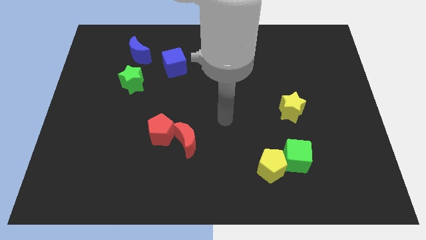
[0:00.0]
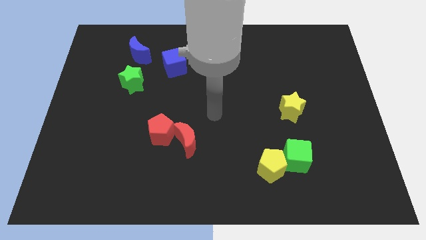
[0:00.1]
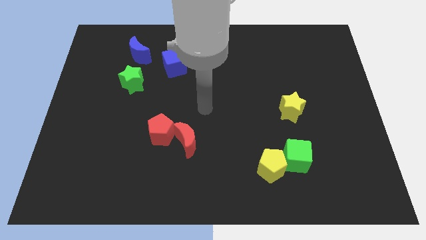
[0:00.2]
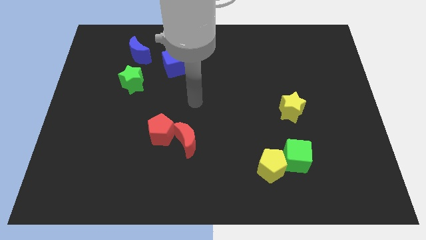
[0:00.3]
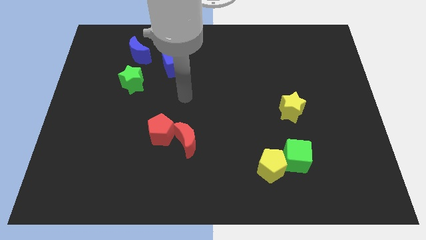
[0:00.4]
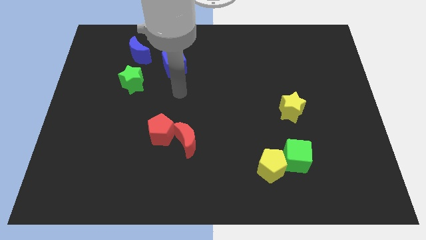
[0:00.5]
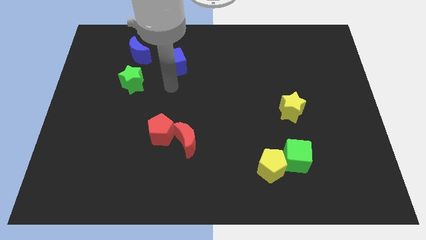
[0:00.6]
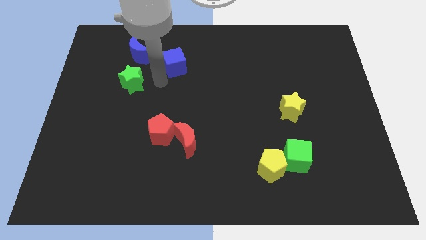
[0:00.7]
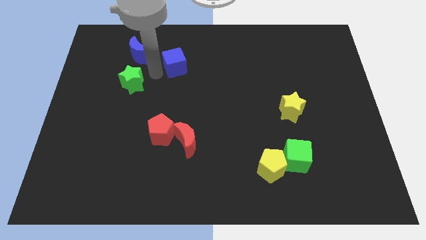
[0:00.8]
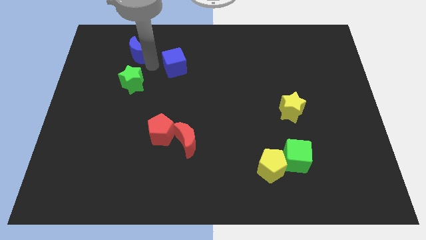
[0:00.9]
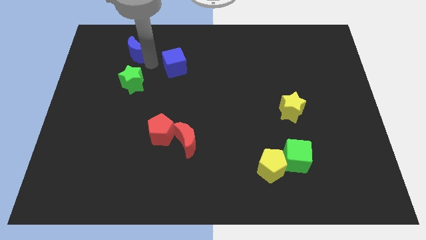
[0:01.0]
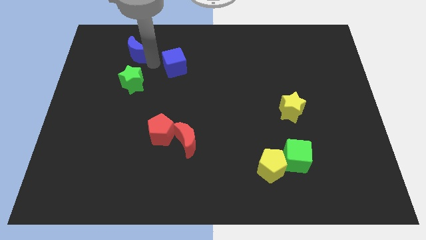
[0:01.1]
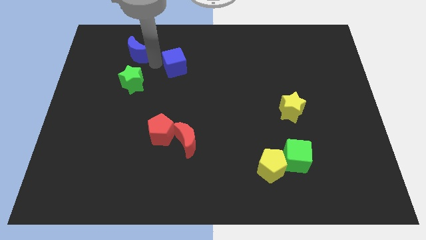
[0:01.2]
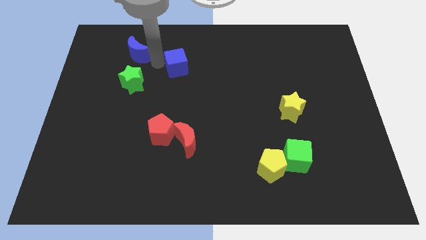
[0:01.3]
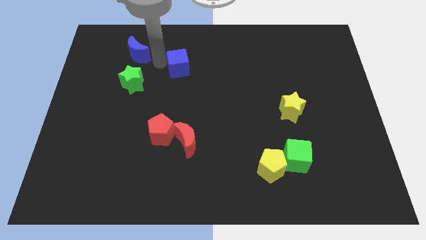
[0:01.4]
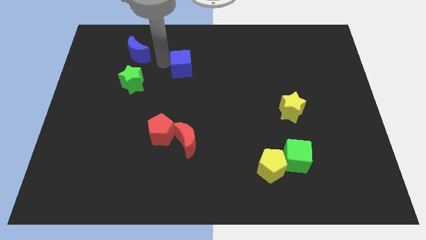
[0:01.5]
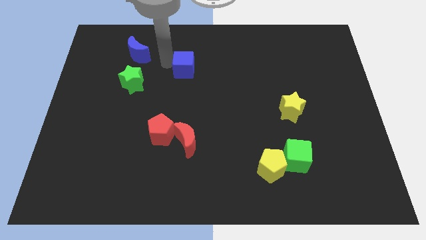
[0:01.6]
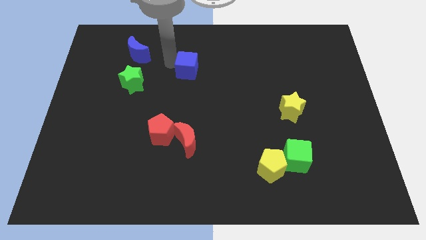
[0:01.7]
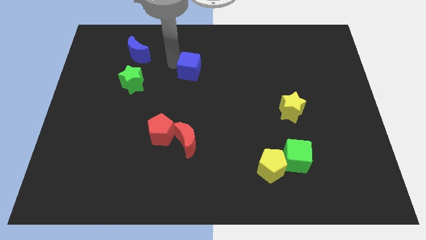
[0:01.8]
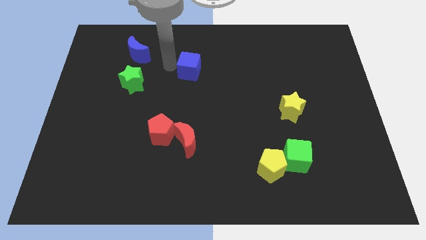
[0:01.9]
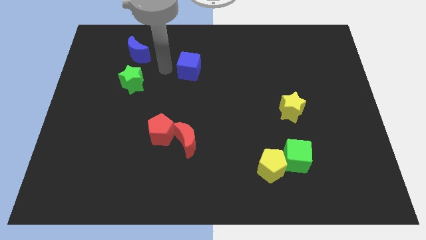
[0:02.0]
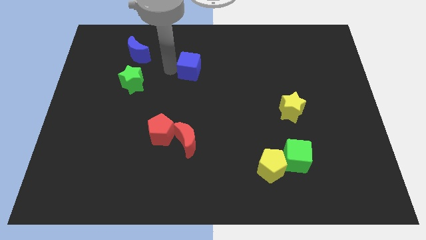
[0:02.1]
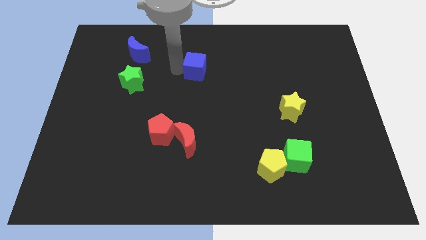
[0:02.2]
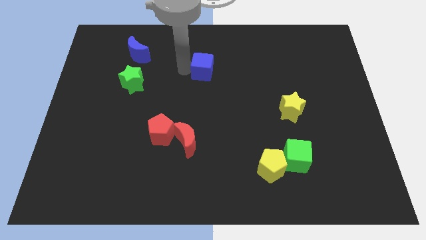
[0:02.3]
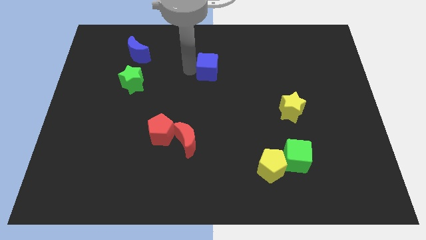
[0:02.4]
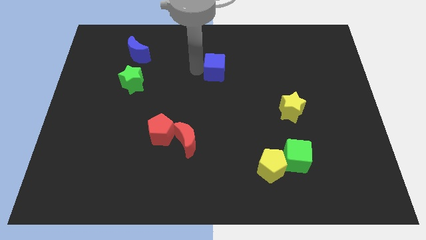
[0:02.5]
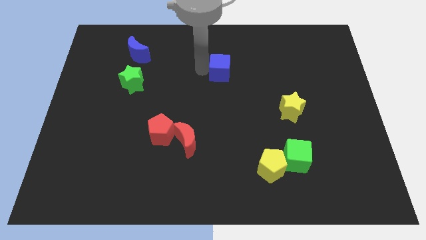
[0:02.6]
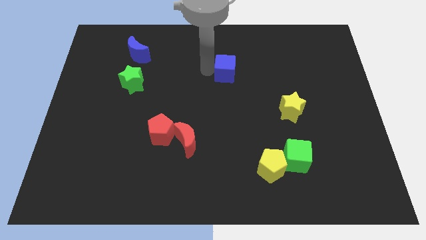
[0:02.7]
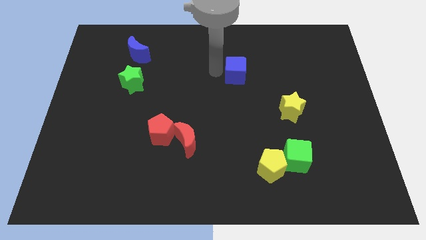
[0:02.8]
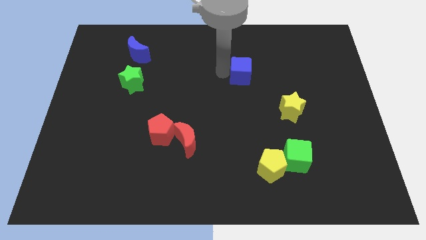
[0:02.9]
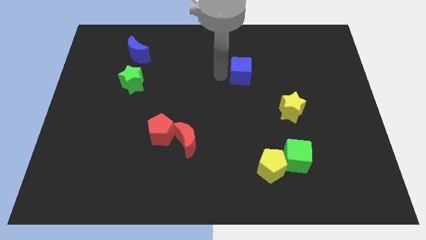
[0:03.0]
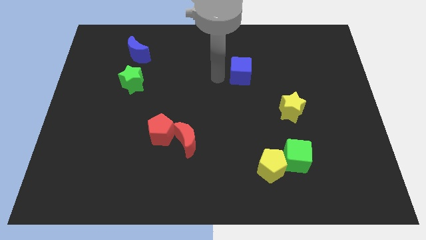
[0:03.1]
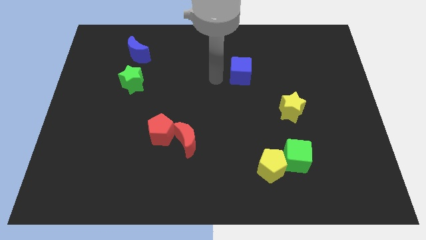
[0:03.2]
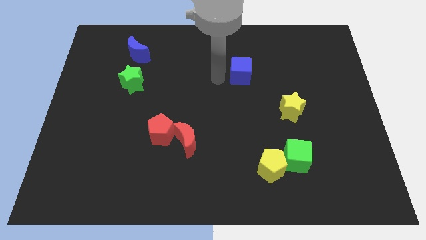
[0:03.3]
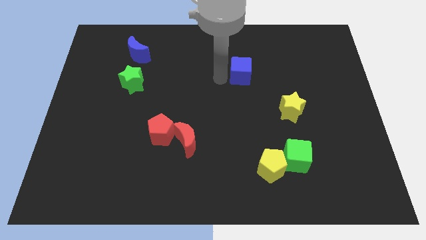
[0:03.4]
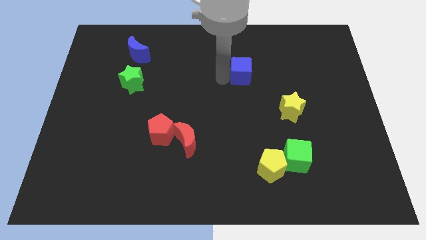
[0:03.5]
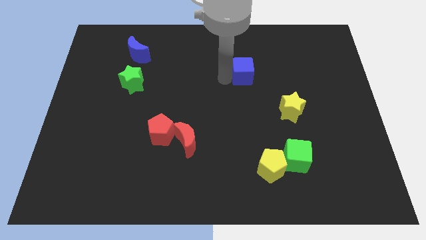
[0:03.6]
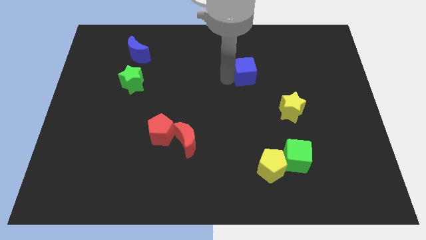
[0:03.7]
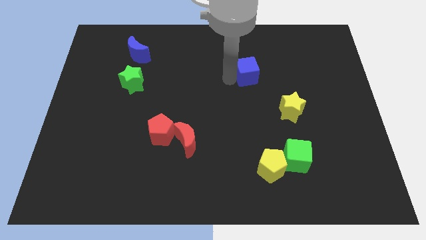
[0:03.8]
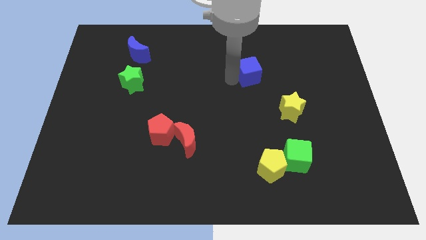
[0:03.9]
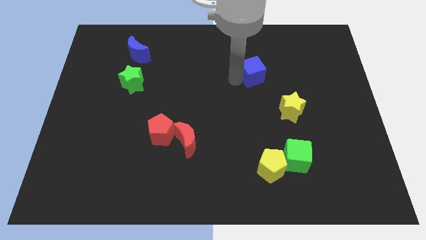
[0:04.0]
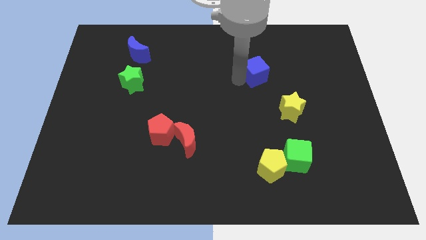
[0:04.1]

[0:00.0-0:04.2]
move the blue cube right

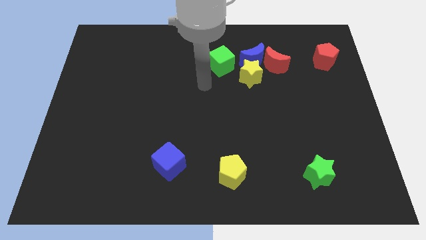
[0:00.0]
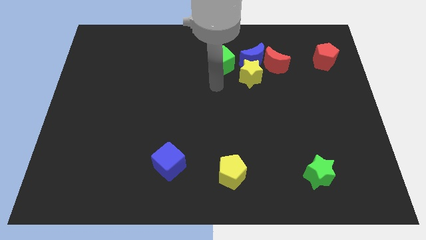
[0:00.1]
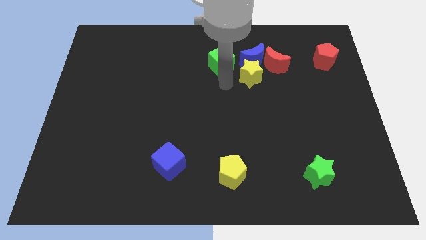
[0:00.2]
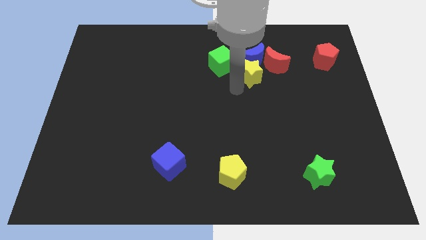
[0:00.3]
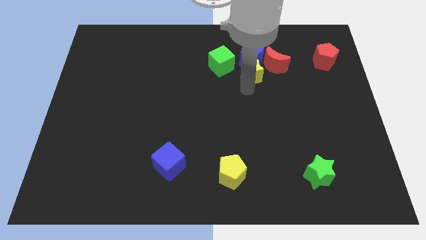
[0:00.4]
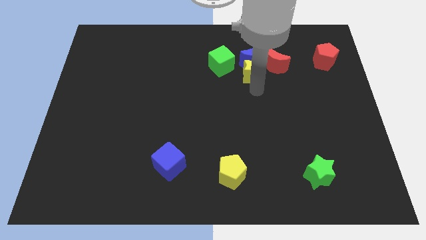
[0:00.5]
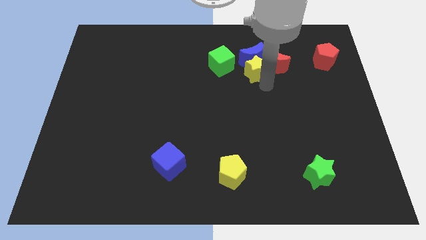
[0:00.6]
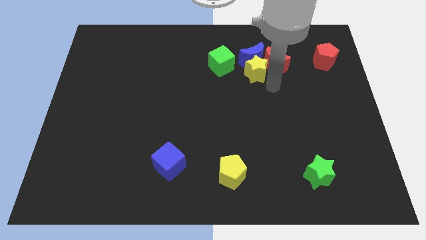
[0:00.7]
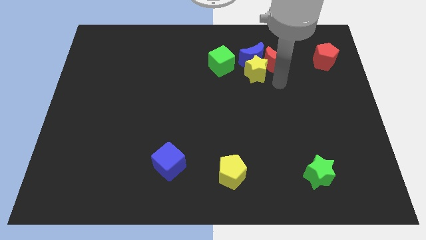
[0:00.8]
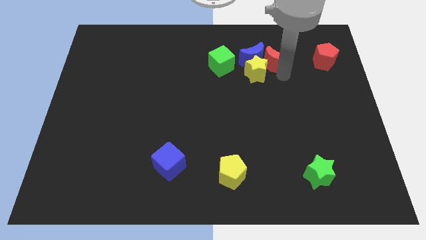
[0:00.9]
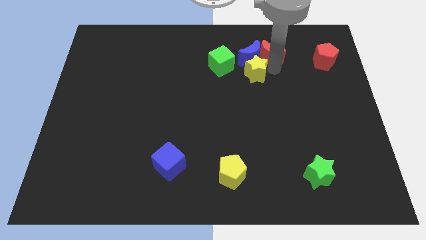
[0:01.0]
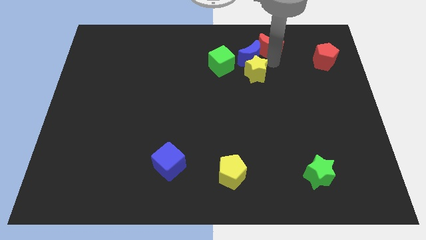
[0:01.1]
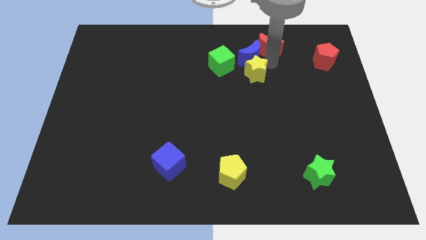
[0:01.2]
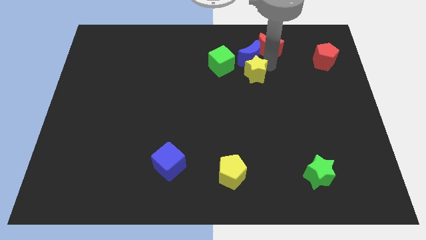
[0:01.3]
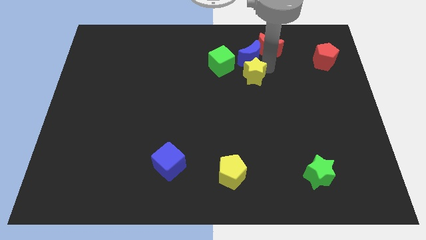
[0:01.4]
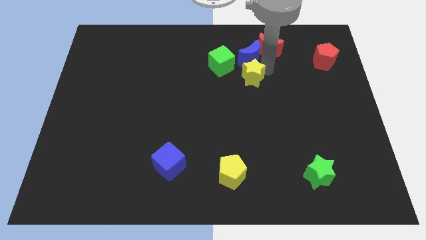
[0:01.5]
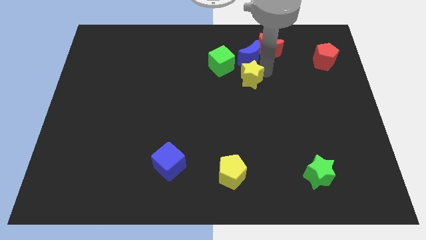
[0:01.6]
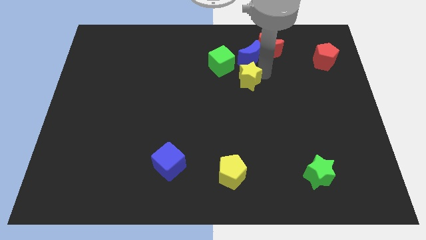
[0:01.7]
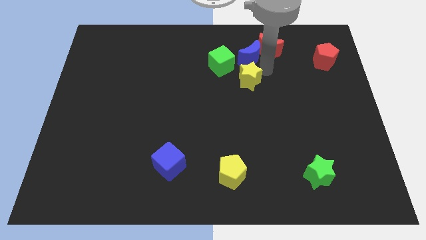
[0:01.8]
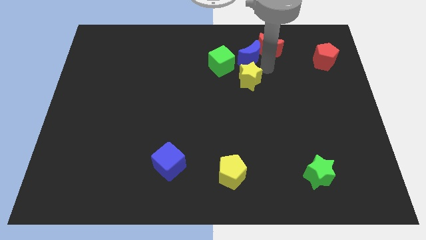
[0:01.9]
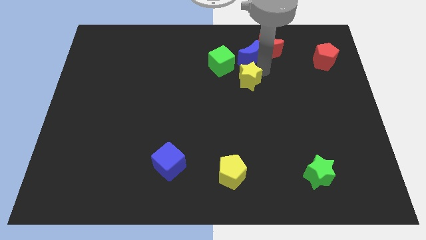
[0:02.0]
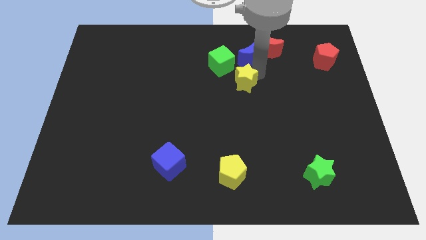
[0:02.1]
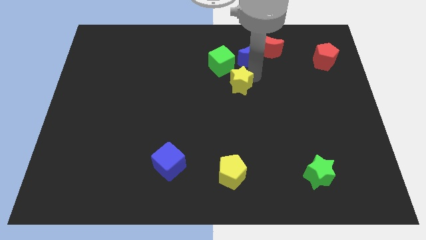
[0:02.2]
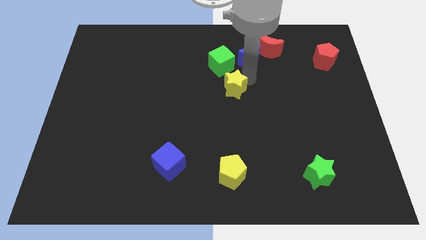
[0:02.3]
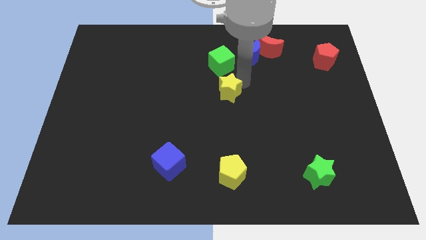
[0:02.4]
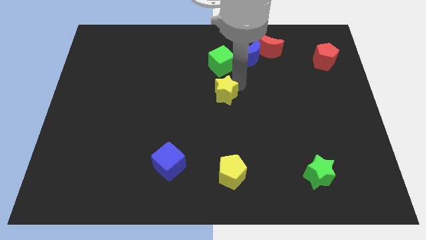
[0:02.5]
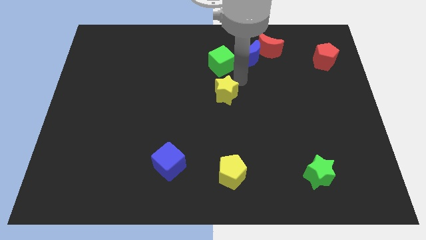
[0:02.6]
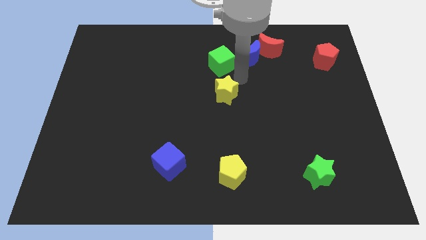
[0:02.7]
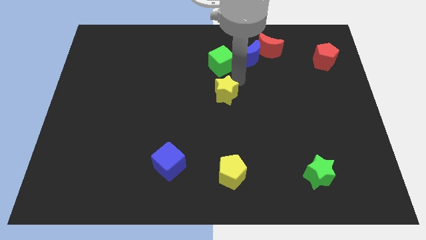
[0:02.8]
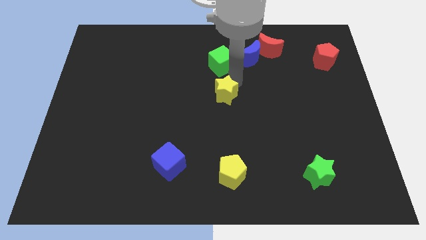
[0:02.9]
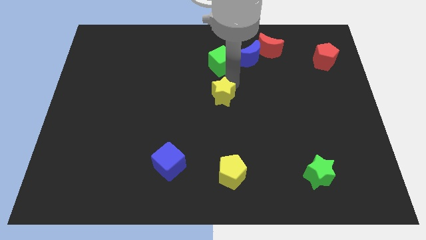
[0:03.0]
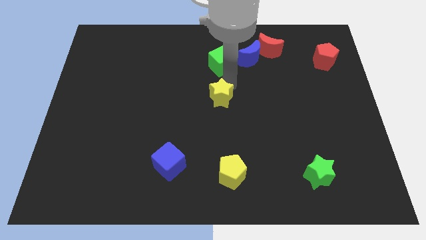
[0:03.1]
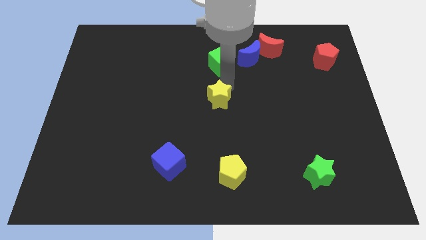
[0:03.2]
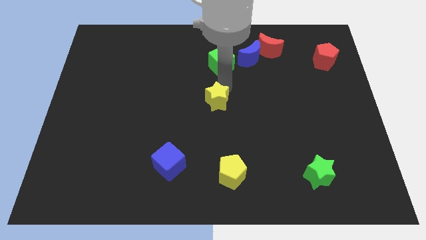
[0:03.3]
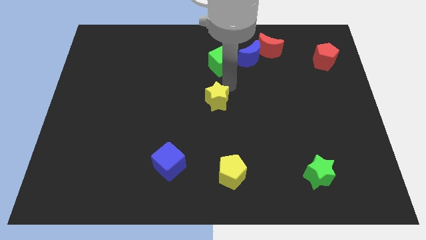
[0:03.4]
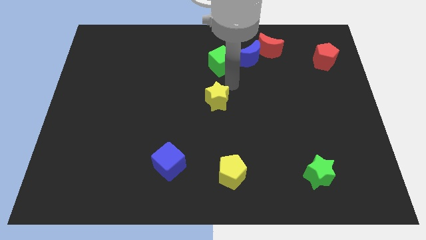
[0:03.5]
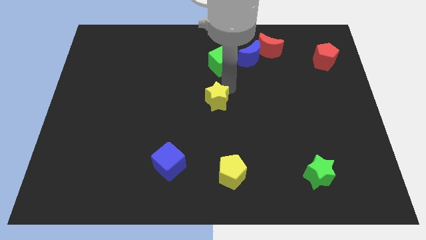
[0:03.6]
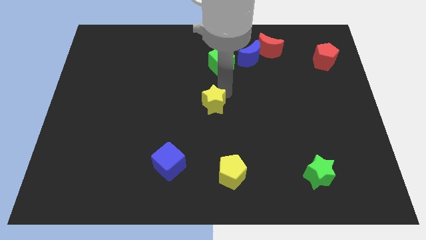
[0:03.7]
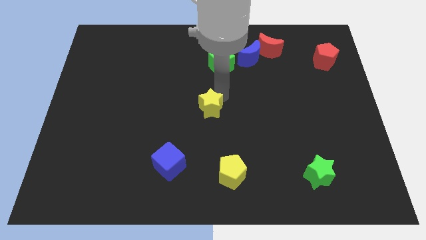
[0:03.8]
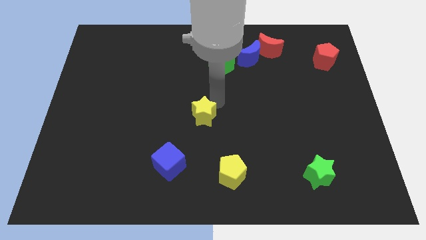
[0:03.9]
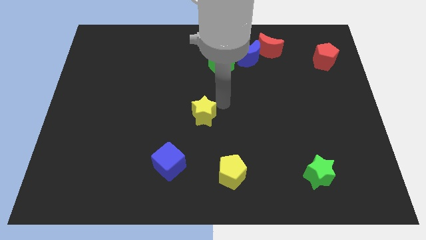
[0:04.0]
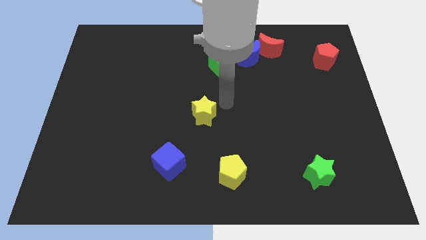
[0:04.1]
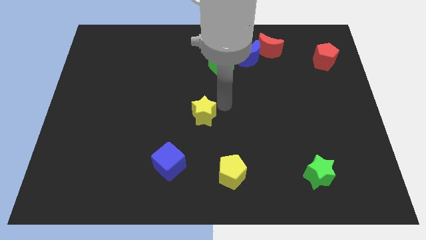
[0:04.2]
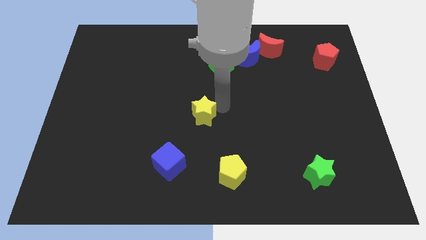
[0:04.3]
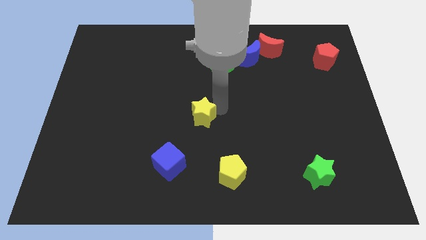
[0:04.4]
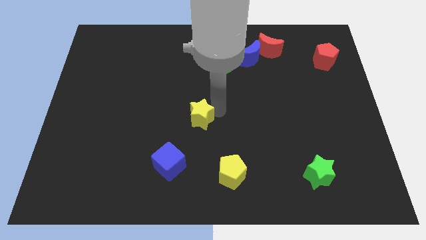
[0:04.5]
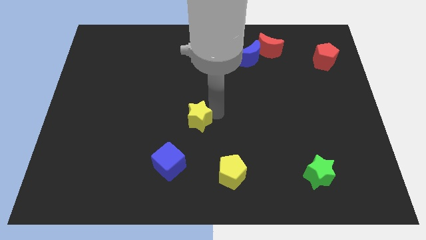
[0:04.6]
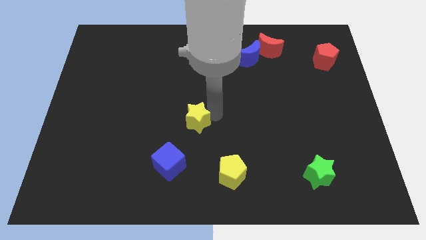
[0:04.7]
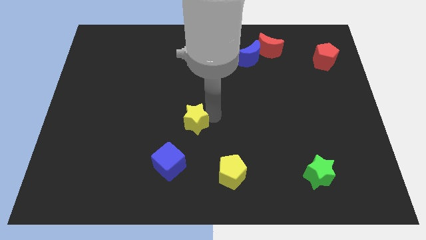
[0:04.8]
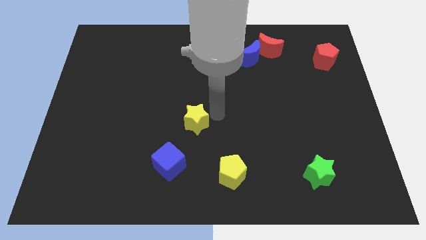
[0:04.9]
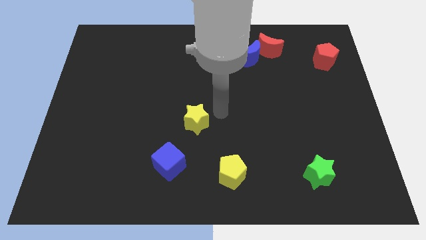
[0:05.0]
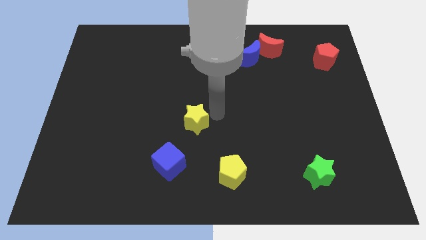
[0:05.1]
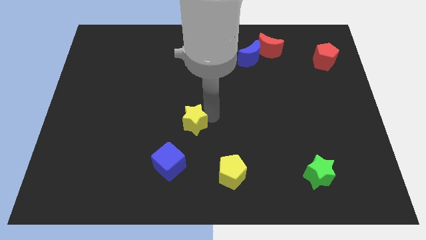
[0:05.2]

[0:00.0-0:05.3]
push the yellow star downwards and left
